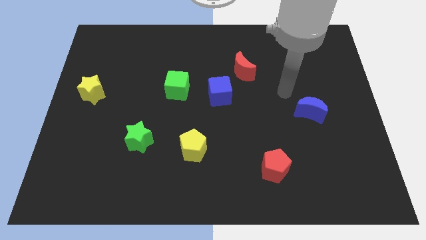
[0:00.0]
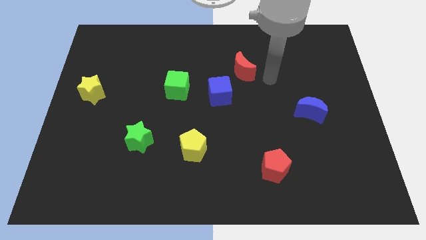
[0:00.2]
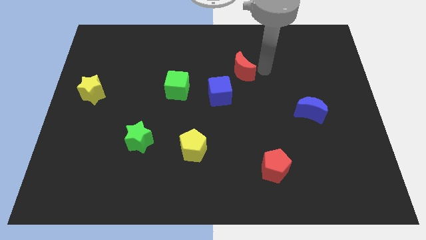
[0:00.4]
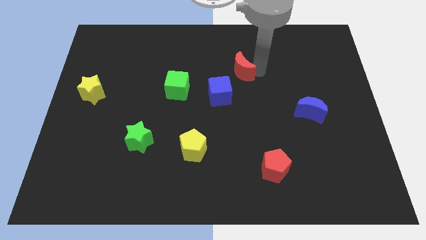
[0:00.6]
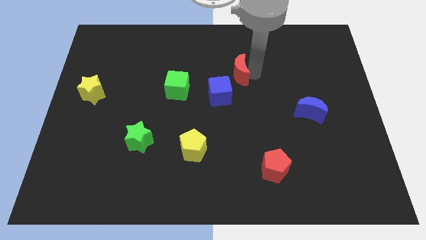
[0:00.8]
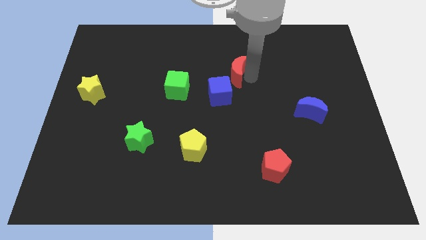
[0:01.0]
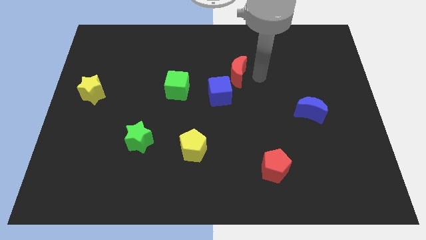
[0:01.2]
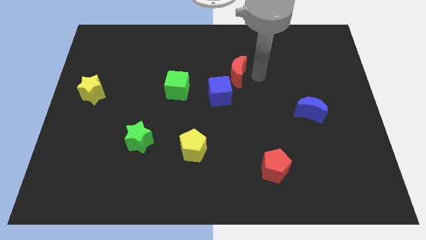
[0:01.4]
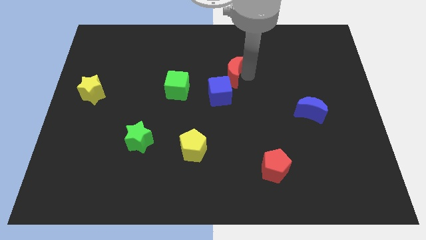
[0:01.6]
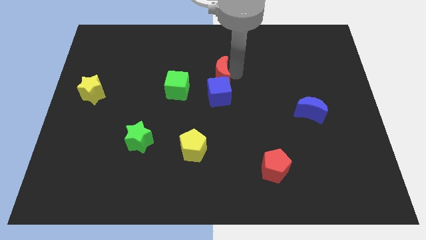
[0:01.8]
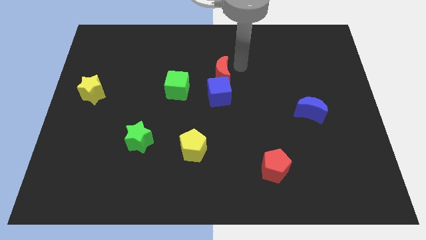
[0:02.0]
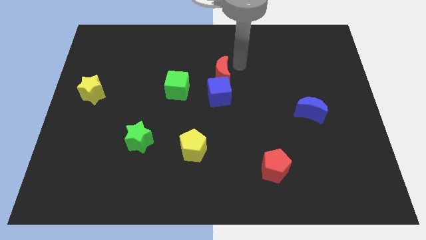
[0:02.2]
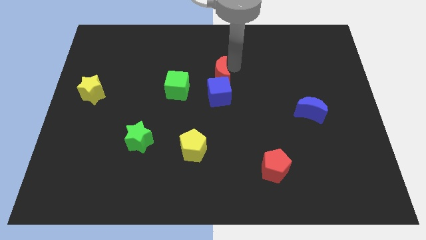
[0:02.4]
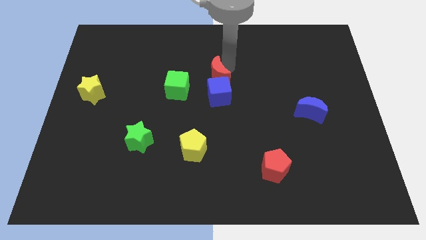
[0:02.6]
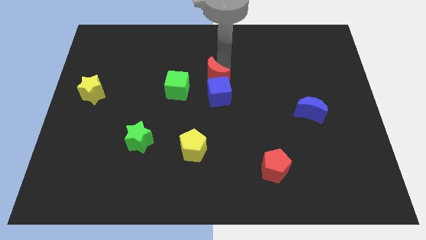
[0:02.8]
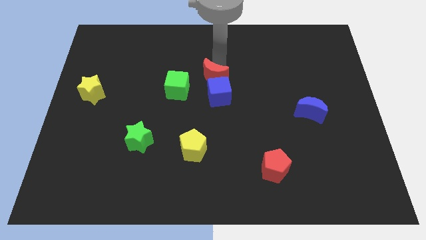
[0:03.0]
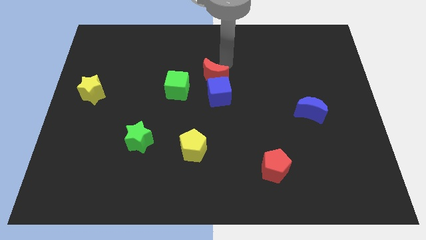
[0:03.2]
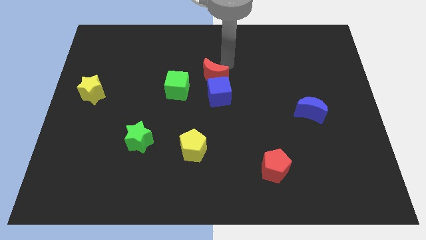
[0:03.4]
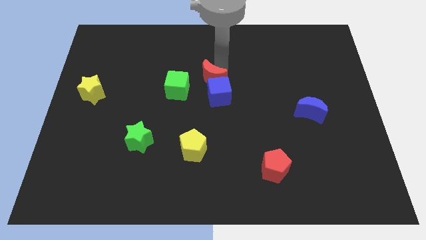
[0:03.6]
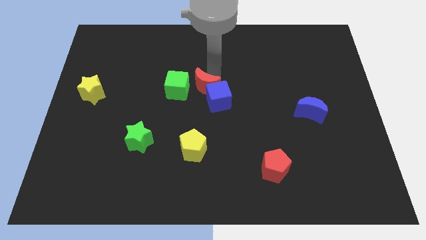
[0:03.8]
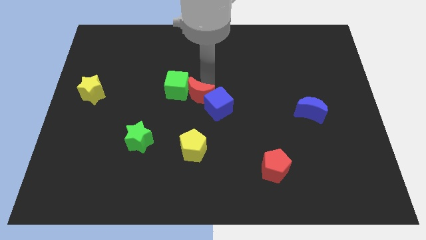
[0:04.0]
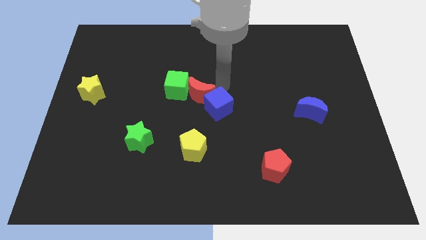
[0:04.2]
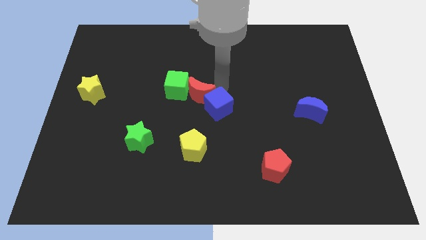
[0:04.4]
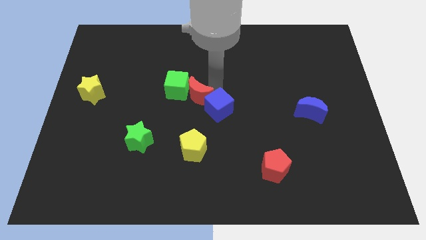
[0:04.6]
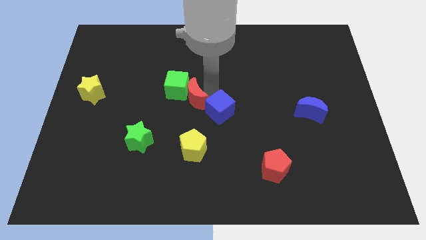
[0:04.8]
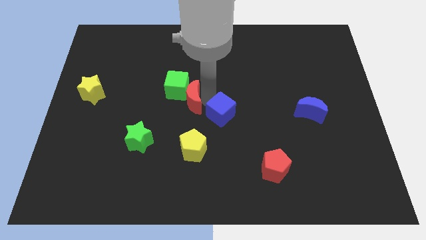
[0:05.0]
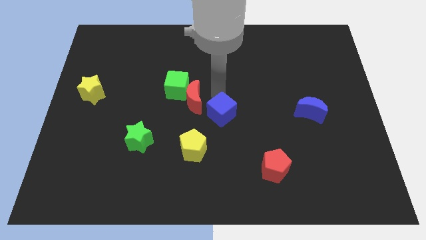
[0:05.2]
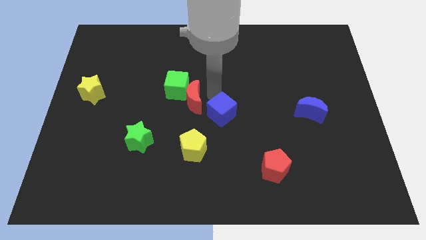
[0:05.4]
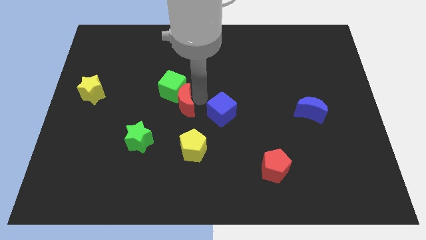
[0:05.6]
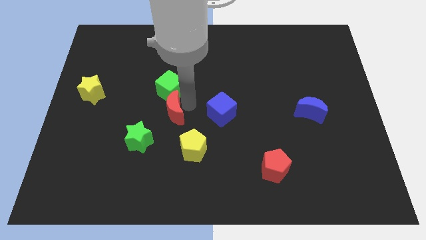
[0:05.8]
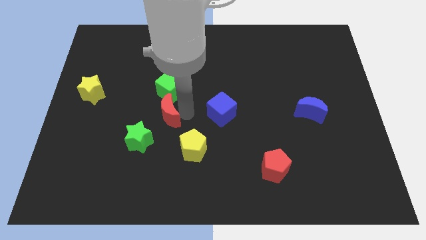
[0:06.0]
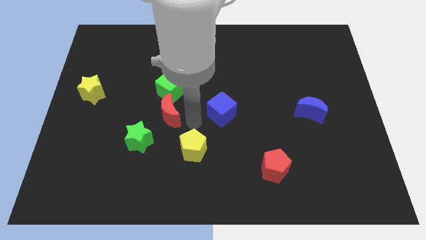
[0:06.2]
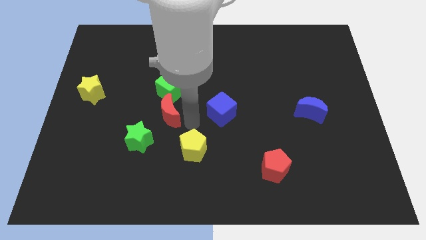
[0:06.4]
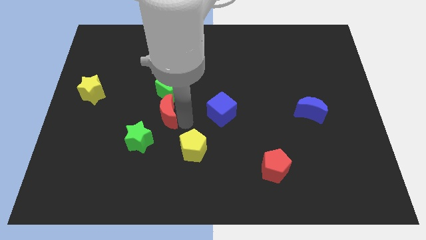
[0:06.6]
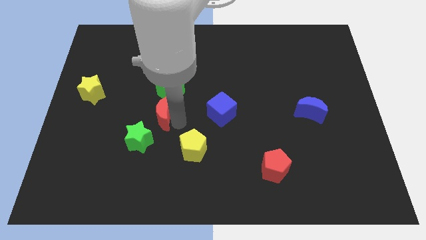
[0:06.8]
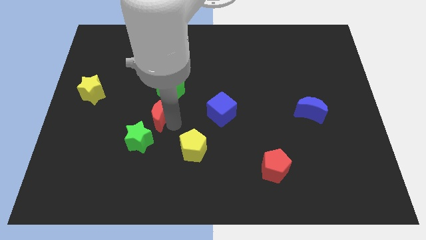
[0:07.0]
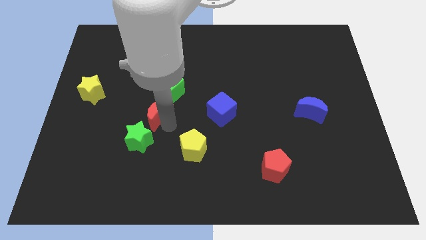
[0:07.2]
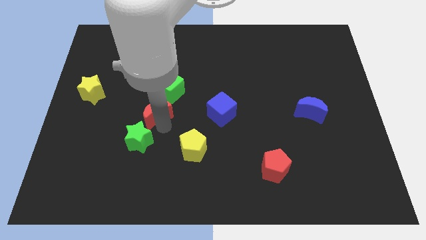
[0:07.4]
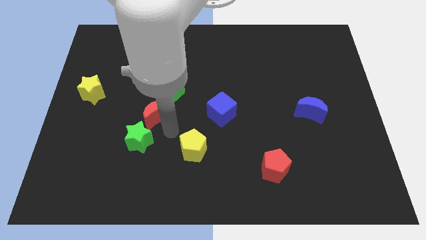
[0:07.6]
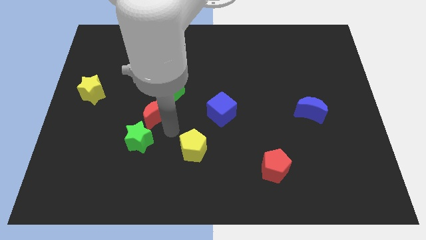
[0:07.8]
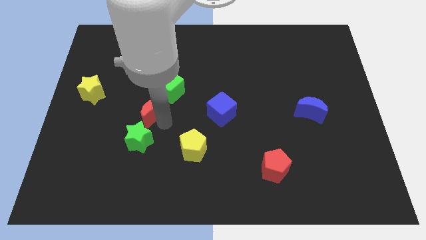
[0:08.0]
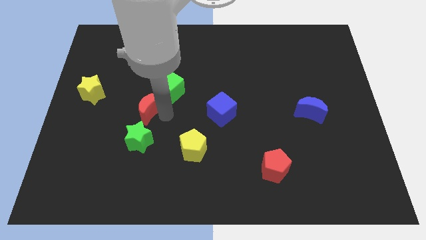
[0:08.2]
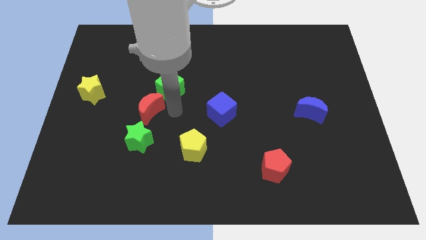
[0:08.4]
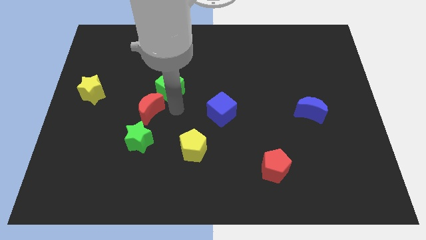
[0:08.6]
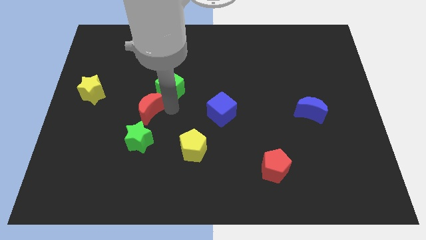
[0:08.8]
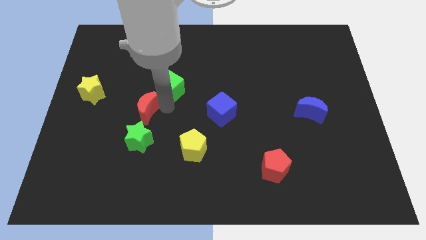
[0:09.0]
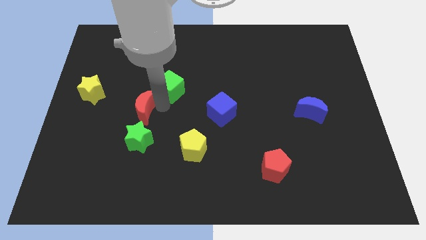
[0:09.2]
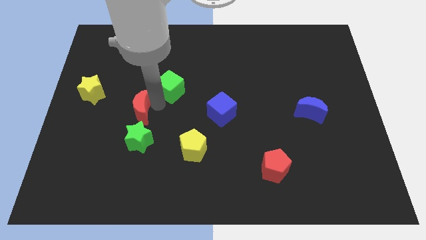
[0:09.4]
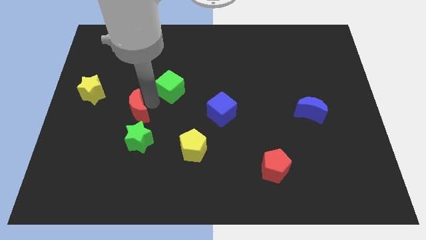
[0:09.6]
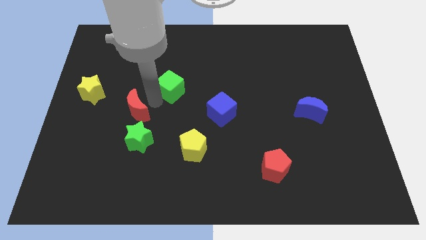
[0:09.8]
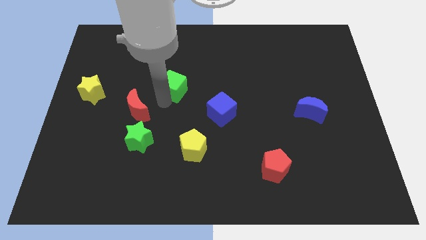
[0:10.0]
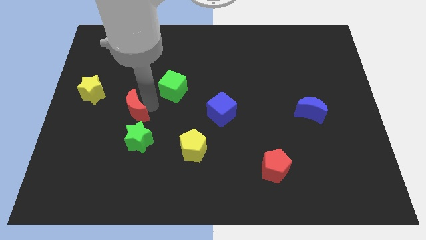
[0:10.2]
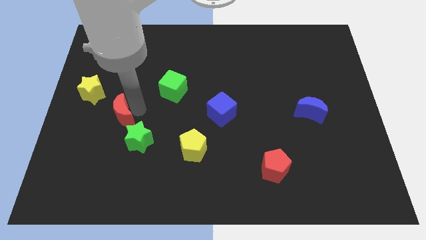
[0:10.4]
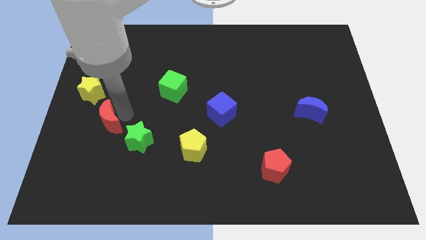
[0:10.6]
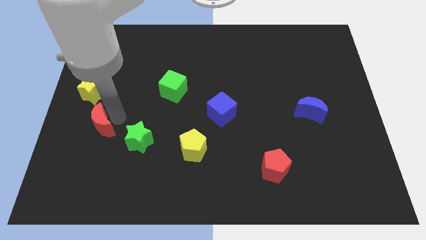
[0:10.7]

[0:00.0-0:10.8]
slide the red moon to the bottom side of the yellow star

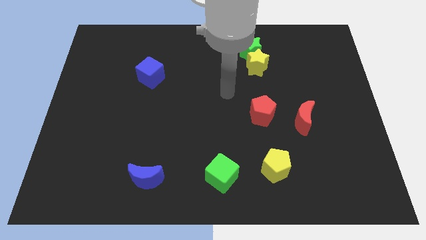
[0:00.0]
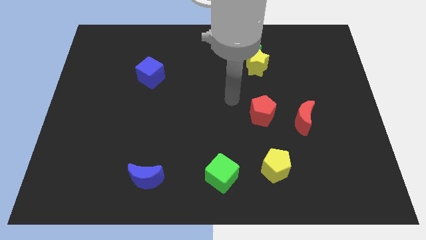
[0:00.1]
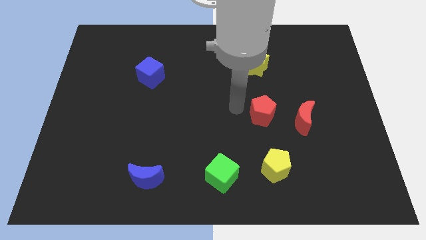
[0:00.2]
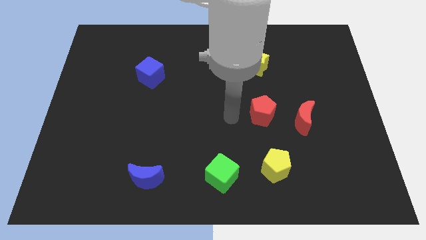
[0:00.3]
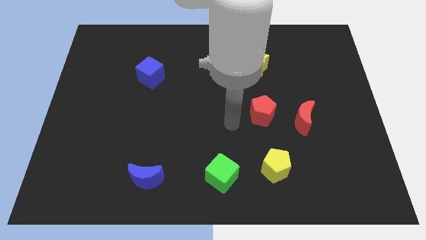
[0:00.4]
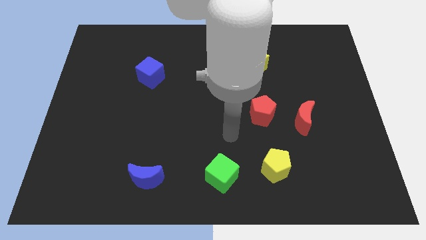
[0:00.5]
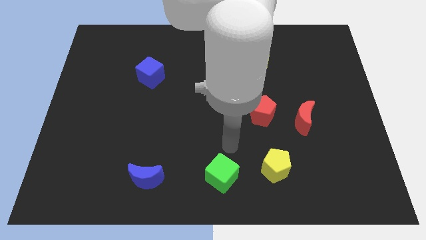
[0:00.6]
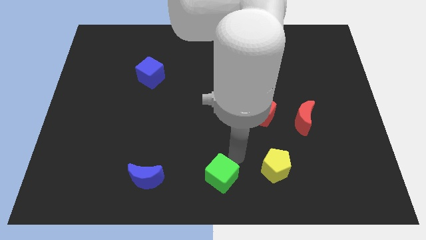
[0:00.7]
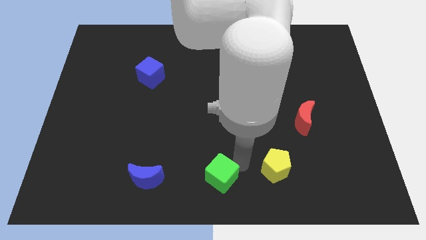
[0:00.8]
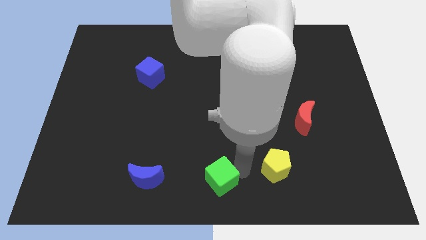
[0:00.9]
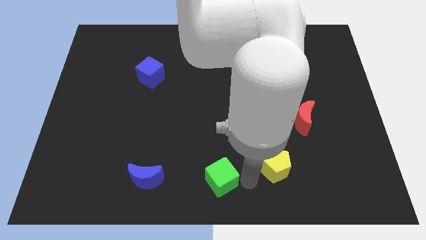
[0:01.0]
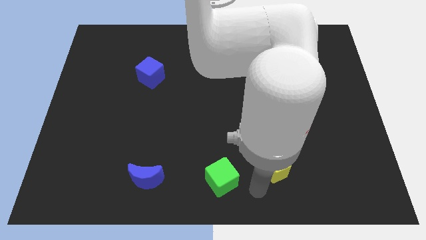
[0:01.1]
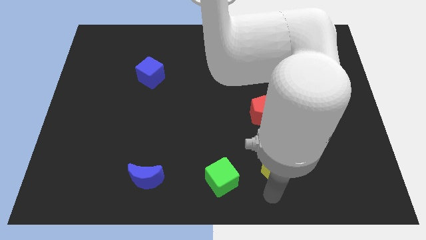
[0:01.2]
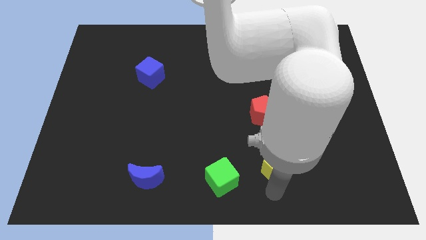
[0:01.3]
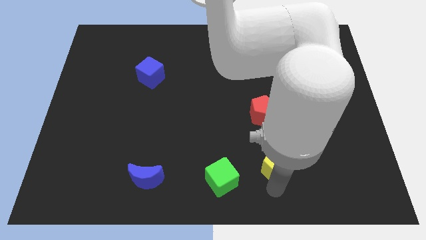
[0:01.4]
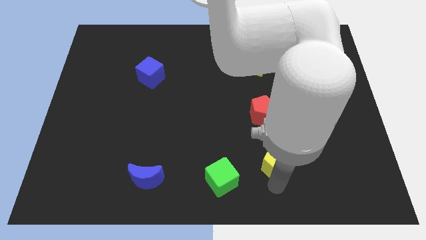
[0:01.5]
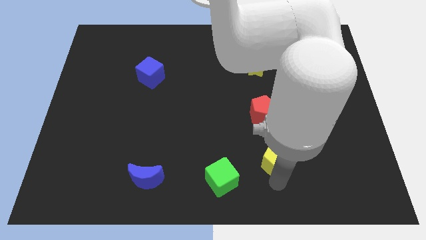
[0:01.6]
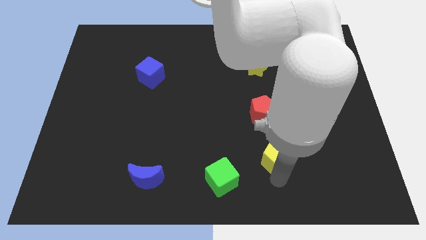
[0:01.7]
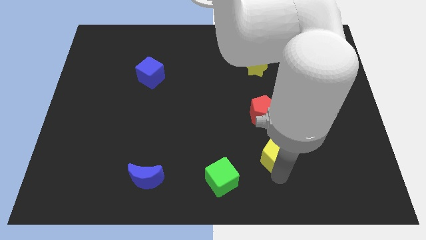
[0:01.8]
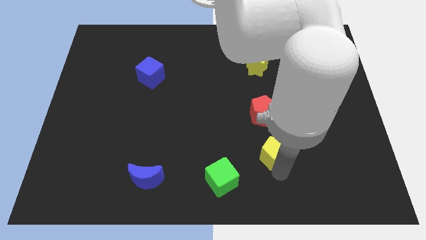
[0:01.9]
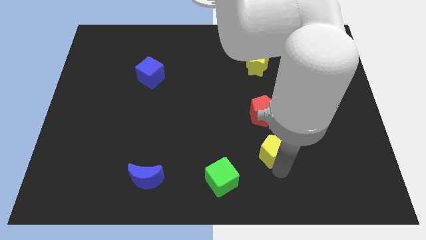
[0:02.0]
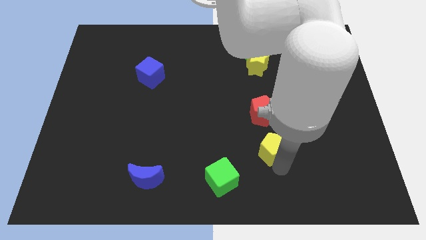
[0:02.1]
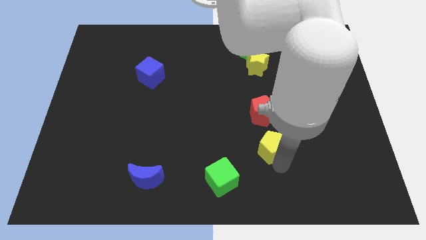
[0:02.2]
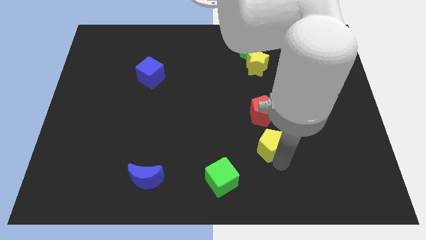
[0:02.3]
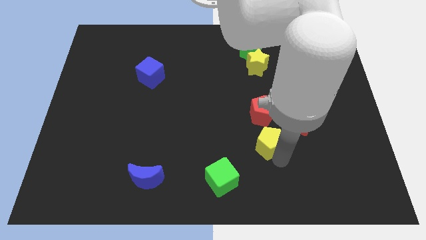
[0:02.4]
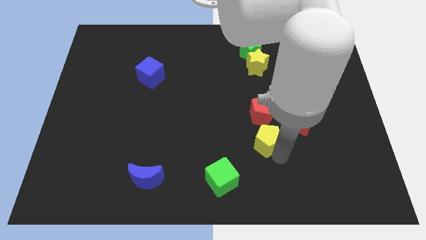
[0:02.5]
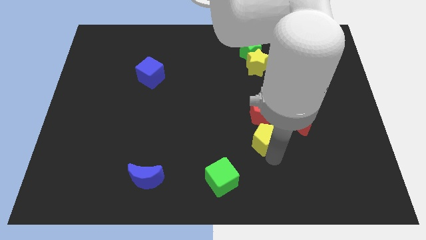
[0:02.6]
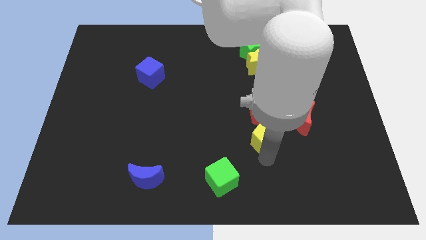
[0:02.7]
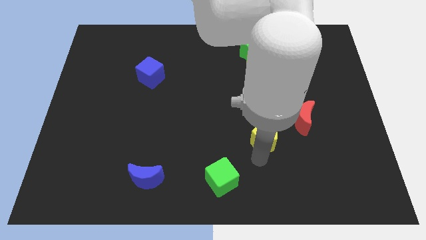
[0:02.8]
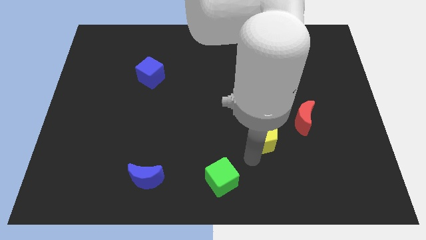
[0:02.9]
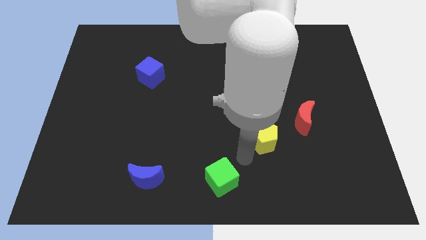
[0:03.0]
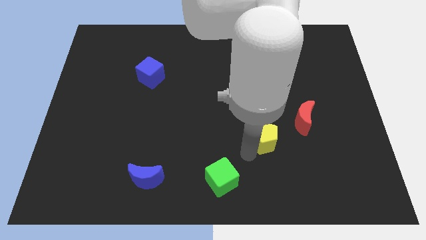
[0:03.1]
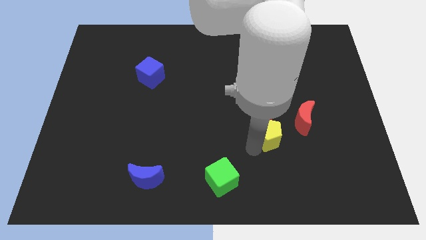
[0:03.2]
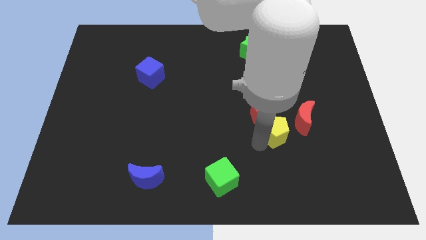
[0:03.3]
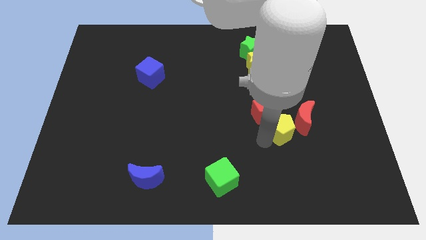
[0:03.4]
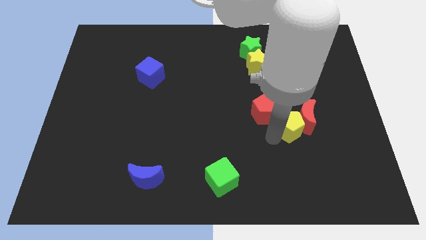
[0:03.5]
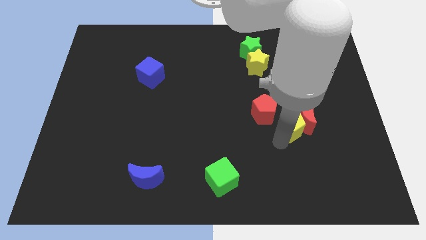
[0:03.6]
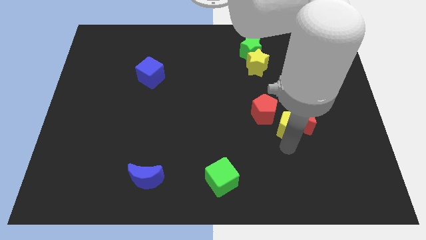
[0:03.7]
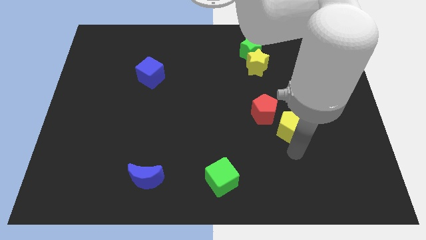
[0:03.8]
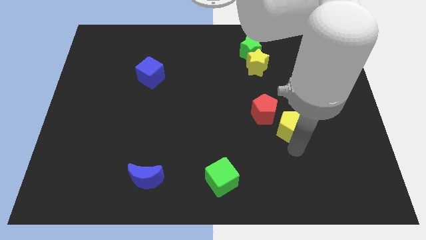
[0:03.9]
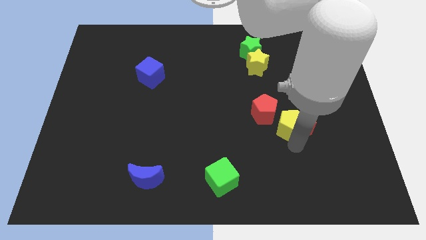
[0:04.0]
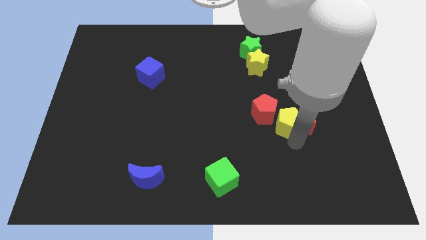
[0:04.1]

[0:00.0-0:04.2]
put the yellow pentagon to the top left side of the red moon
